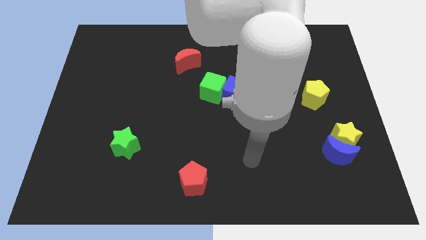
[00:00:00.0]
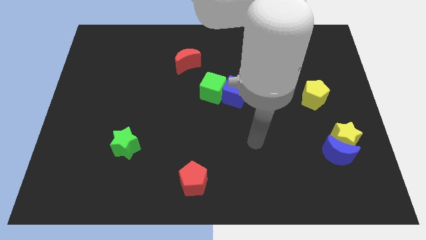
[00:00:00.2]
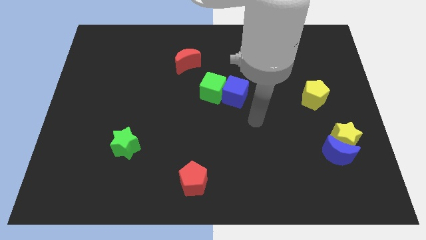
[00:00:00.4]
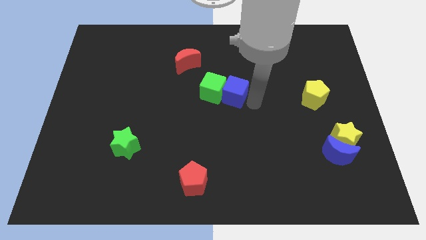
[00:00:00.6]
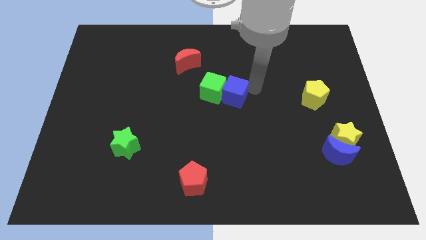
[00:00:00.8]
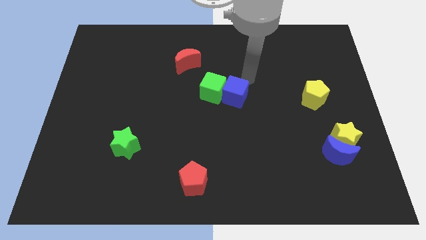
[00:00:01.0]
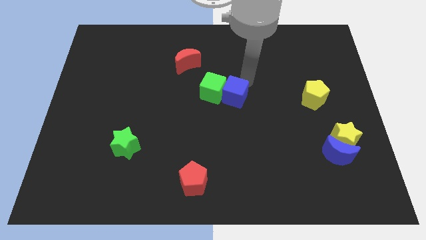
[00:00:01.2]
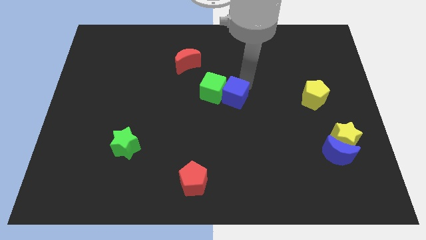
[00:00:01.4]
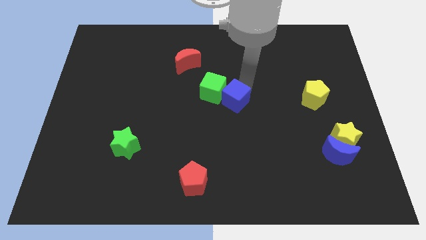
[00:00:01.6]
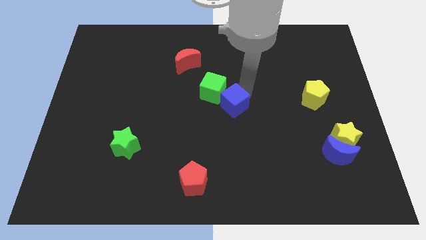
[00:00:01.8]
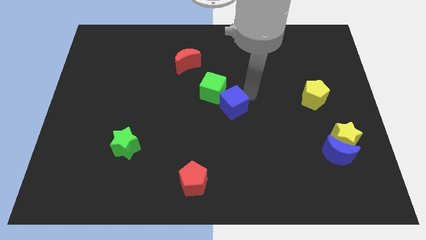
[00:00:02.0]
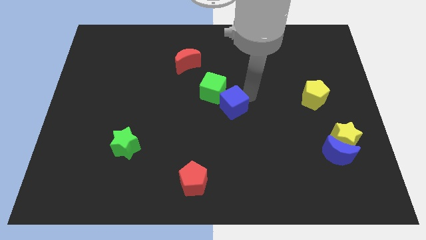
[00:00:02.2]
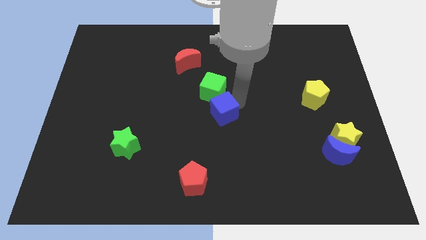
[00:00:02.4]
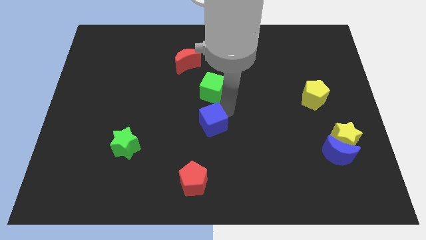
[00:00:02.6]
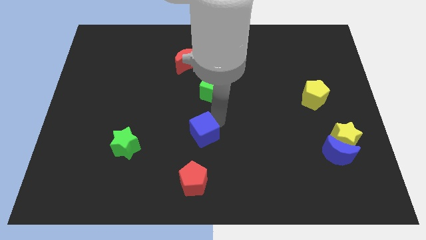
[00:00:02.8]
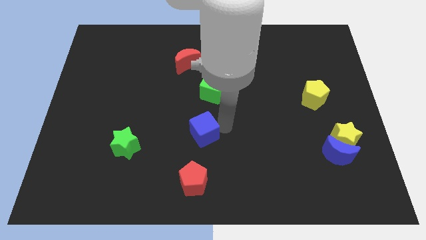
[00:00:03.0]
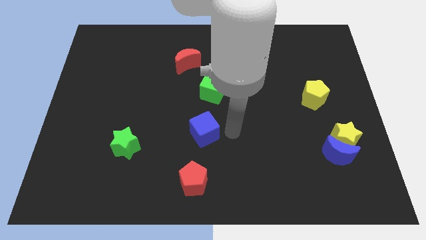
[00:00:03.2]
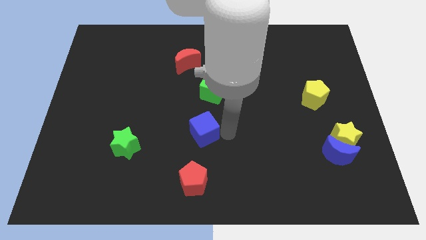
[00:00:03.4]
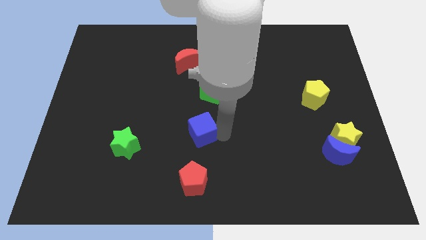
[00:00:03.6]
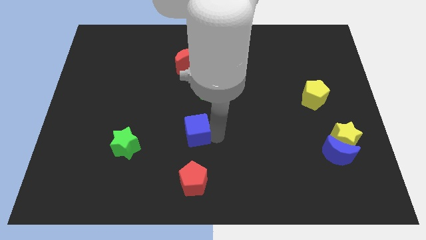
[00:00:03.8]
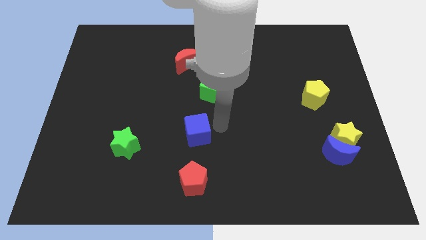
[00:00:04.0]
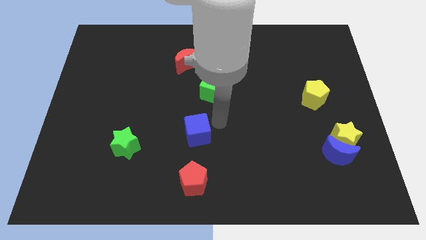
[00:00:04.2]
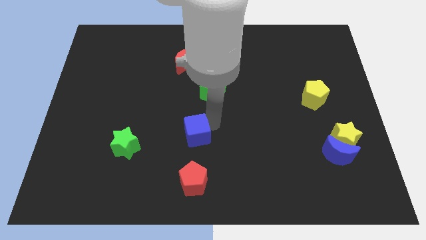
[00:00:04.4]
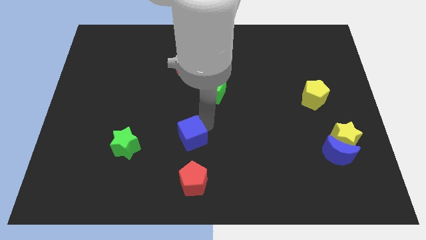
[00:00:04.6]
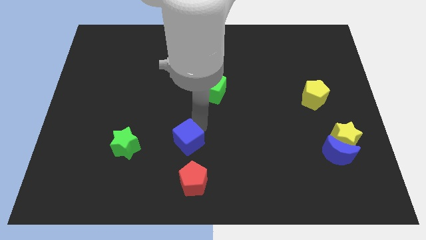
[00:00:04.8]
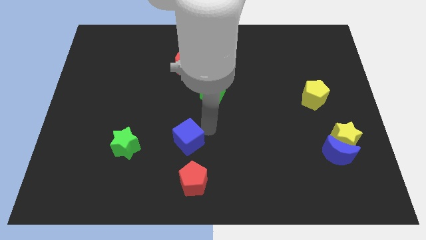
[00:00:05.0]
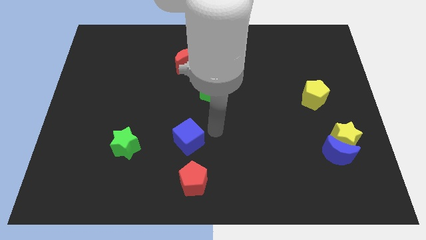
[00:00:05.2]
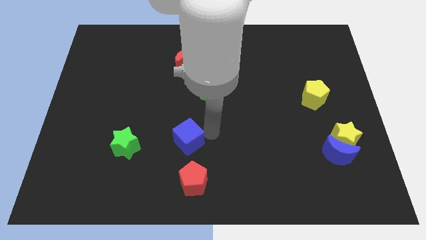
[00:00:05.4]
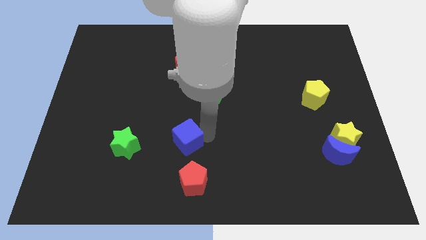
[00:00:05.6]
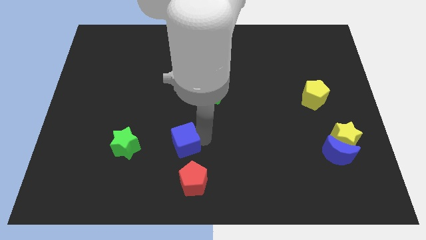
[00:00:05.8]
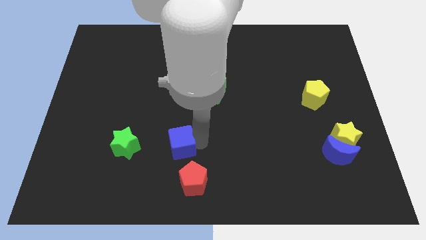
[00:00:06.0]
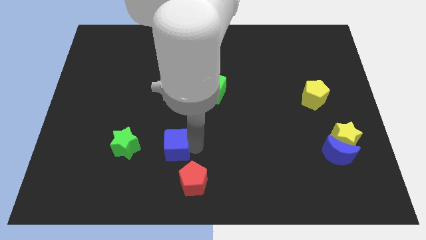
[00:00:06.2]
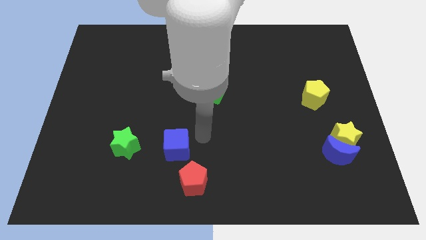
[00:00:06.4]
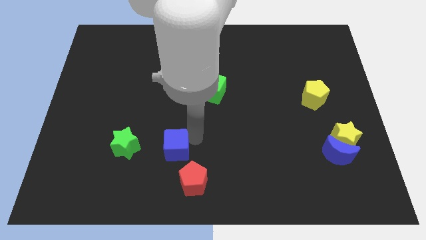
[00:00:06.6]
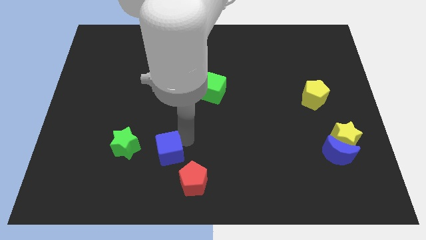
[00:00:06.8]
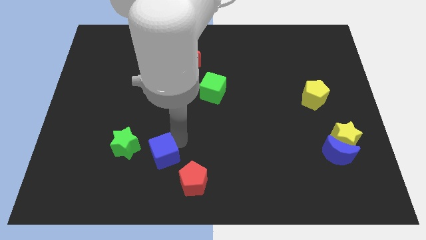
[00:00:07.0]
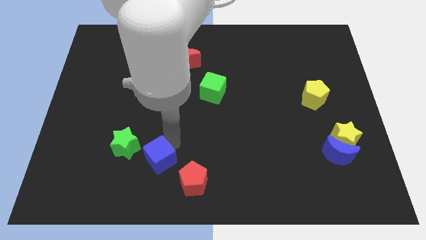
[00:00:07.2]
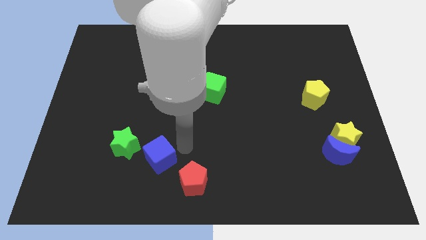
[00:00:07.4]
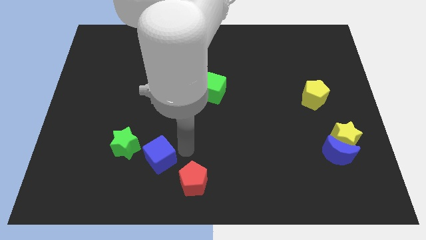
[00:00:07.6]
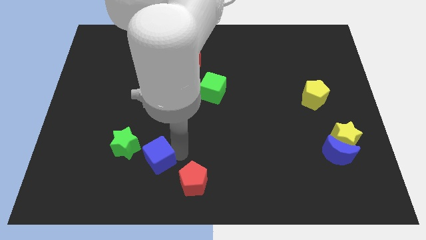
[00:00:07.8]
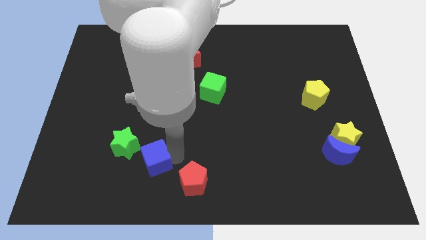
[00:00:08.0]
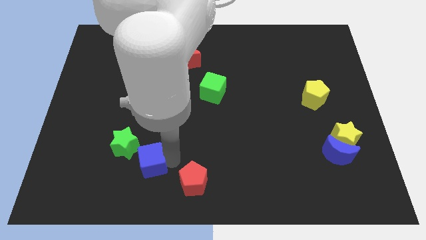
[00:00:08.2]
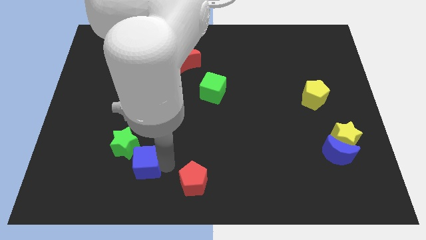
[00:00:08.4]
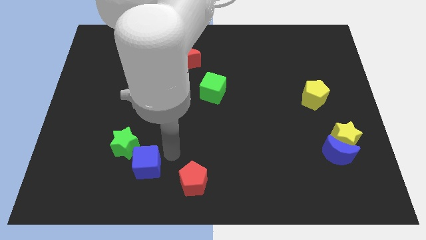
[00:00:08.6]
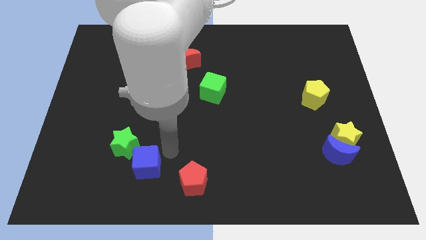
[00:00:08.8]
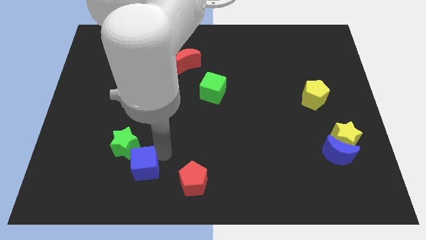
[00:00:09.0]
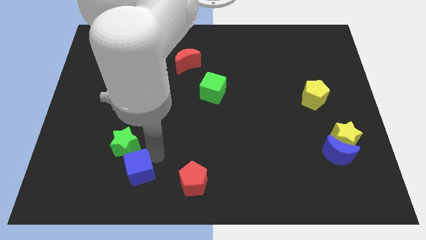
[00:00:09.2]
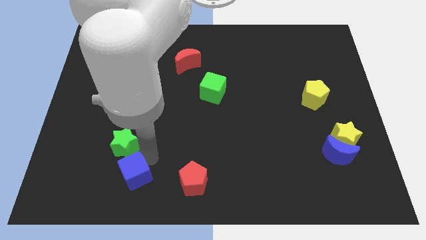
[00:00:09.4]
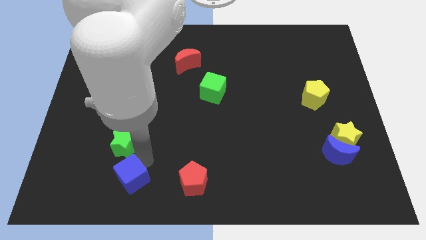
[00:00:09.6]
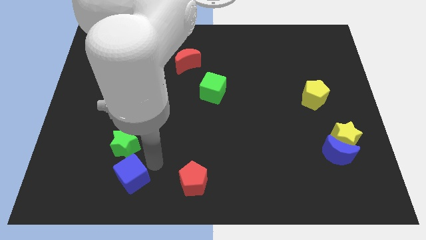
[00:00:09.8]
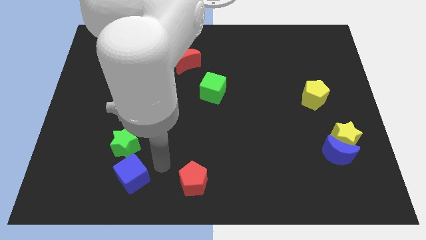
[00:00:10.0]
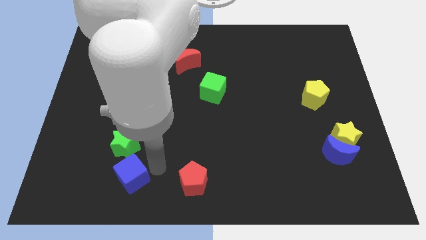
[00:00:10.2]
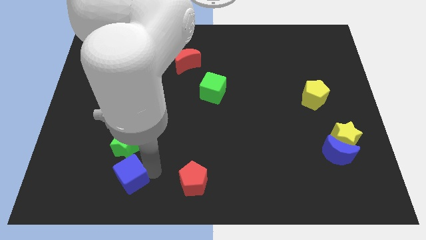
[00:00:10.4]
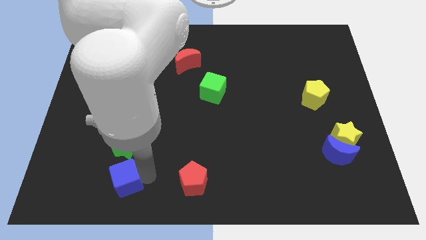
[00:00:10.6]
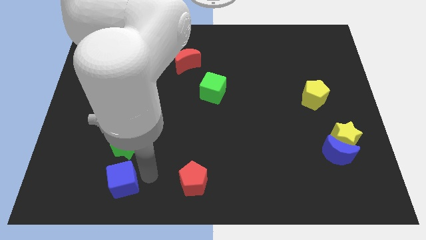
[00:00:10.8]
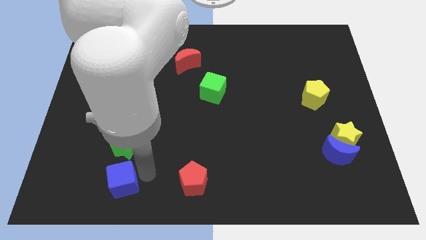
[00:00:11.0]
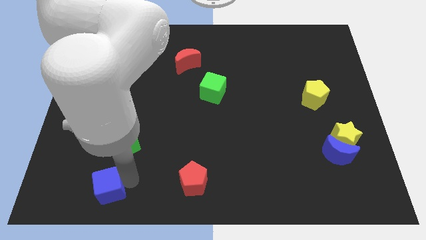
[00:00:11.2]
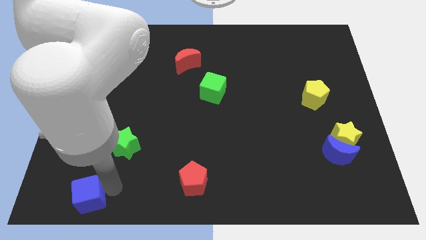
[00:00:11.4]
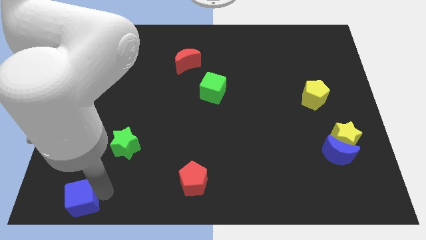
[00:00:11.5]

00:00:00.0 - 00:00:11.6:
move the blue cube to the bottom left of the board

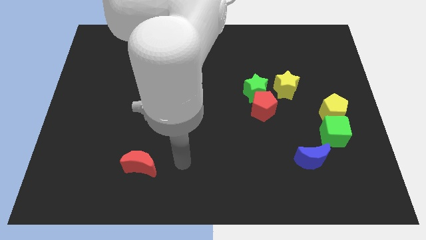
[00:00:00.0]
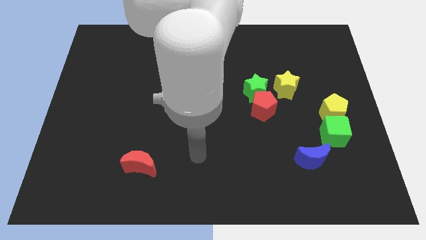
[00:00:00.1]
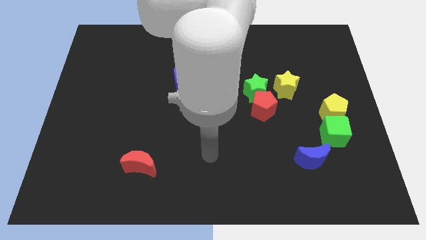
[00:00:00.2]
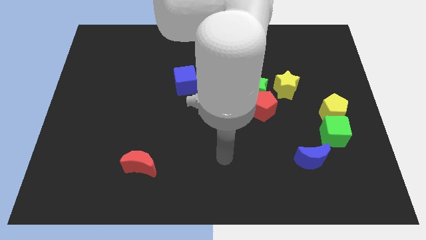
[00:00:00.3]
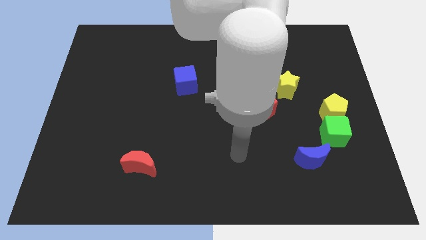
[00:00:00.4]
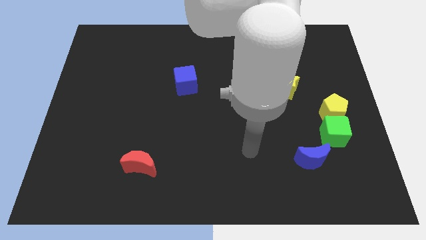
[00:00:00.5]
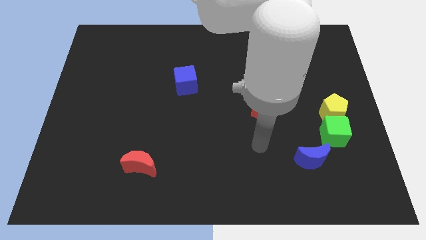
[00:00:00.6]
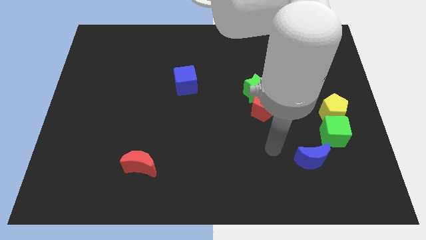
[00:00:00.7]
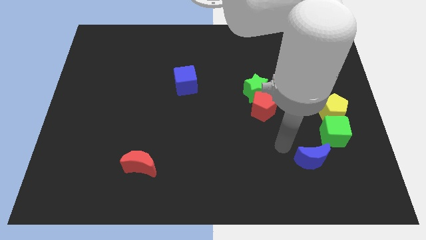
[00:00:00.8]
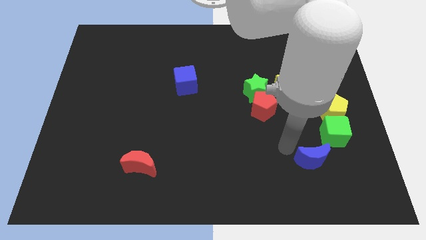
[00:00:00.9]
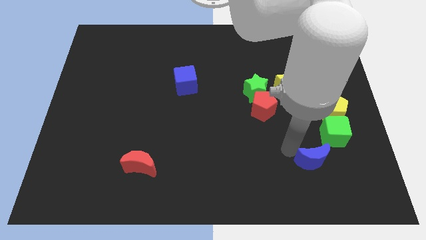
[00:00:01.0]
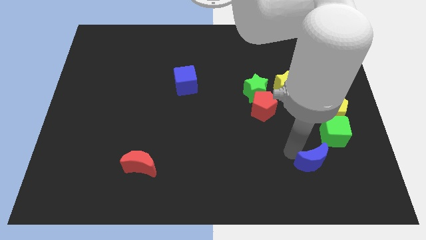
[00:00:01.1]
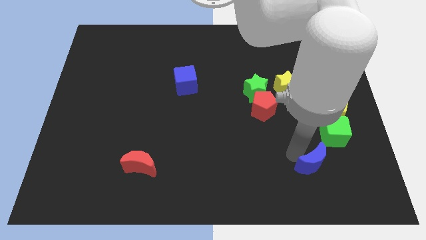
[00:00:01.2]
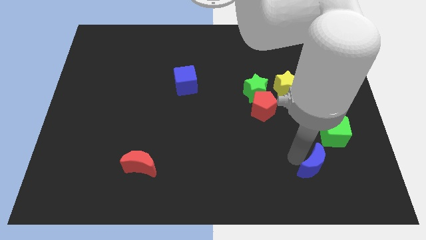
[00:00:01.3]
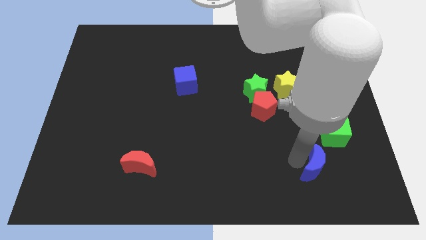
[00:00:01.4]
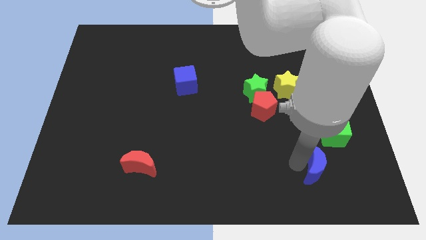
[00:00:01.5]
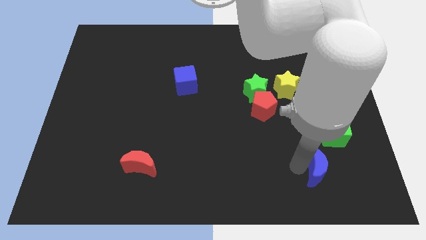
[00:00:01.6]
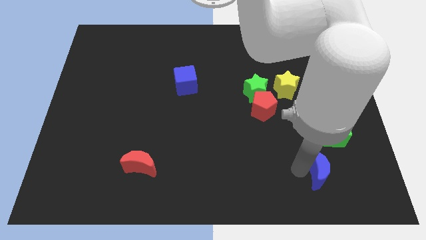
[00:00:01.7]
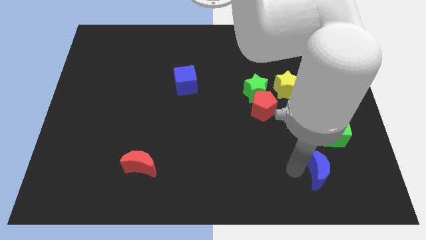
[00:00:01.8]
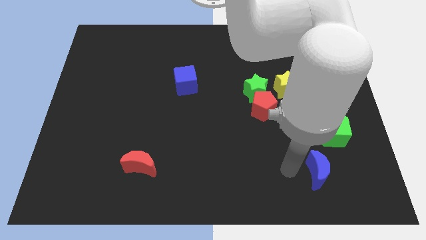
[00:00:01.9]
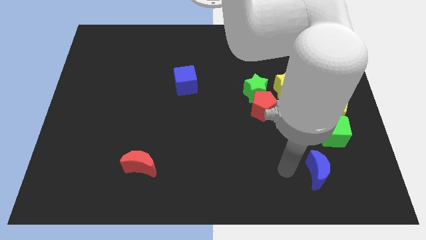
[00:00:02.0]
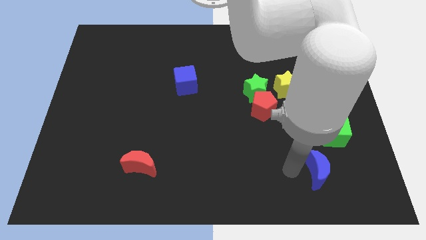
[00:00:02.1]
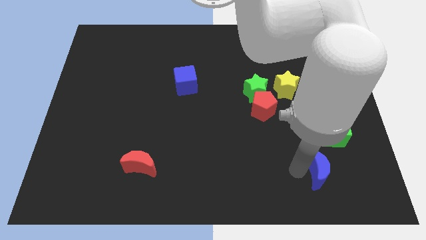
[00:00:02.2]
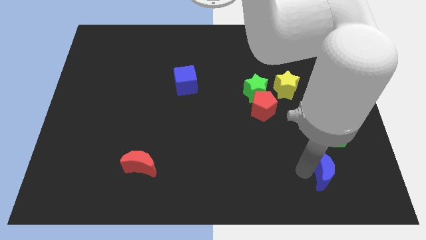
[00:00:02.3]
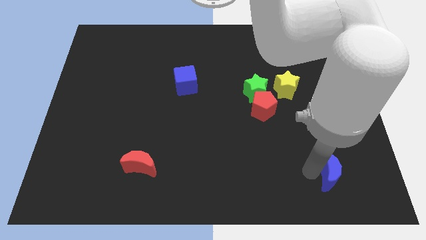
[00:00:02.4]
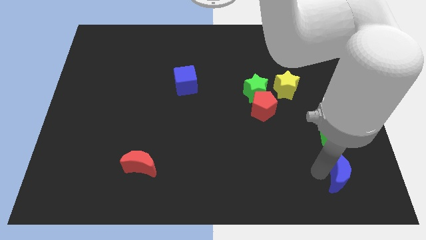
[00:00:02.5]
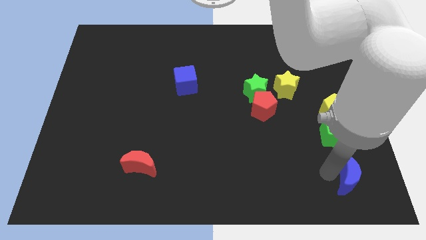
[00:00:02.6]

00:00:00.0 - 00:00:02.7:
push the blue moon to the bottom right
